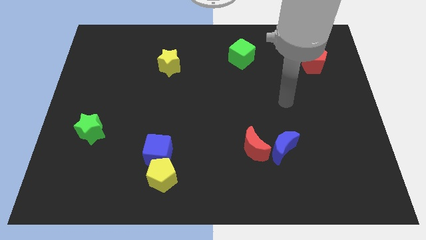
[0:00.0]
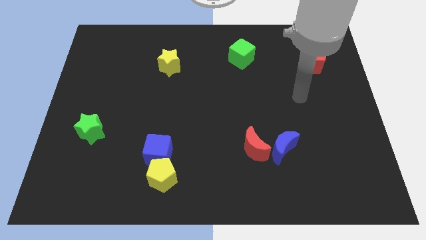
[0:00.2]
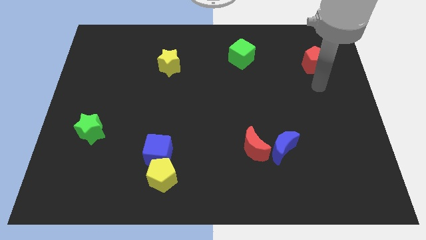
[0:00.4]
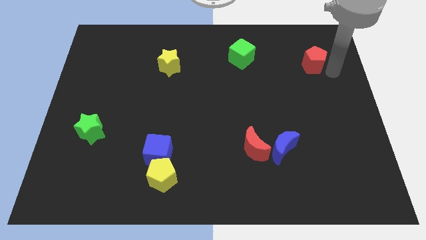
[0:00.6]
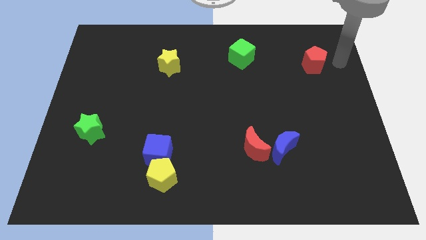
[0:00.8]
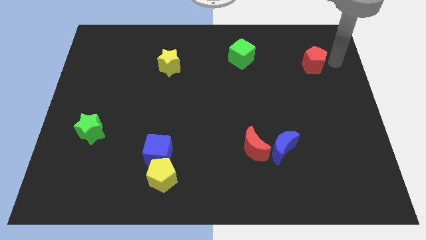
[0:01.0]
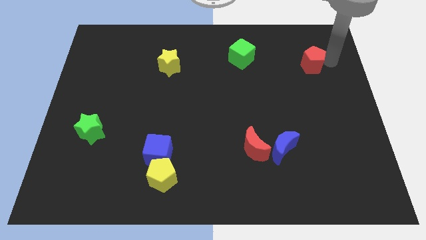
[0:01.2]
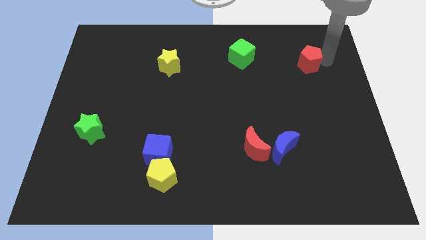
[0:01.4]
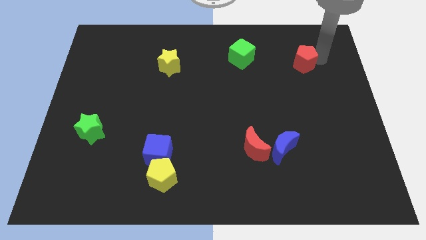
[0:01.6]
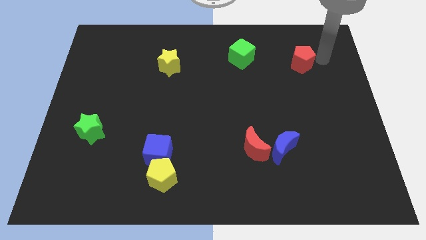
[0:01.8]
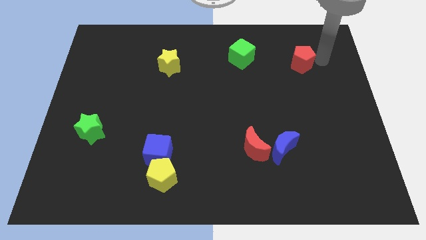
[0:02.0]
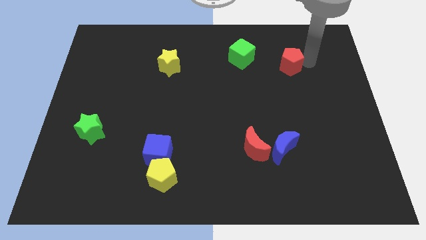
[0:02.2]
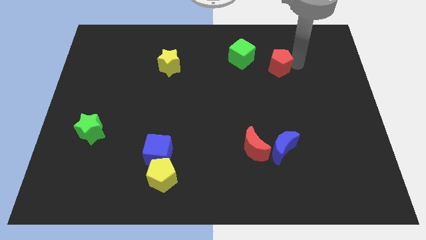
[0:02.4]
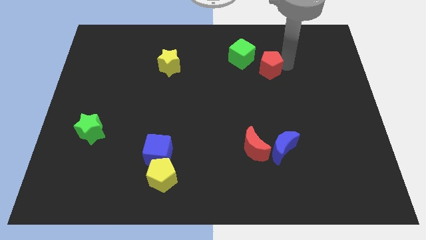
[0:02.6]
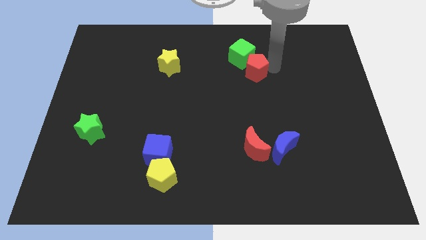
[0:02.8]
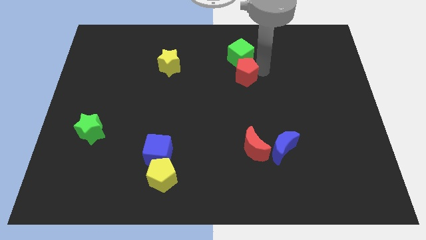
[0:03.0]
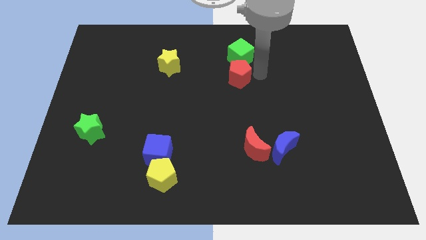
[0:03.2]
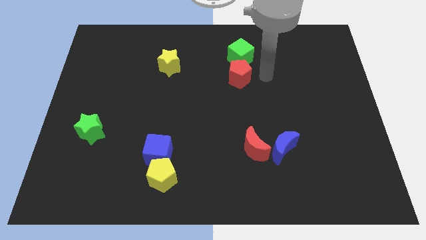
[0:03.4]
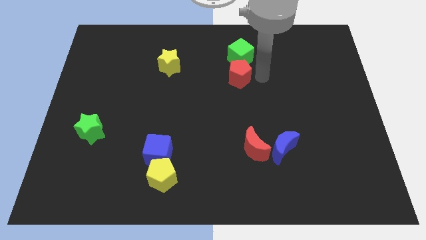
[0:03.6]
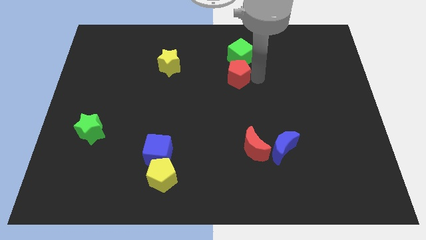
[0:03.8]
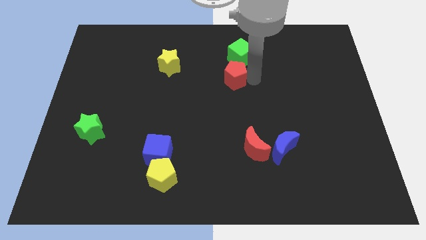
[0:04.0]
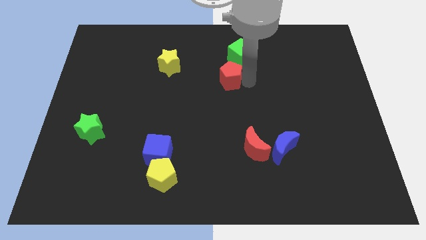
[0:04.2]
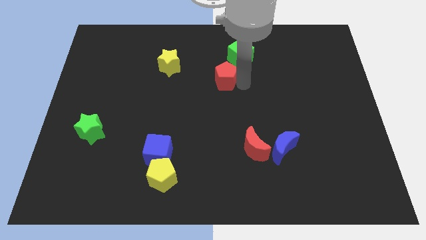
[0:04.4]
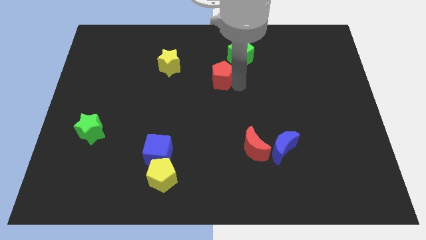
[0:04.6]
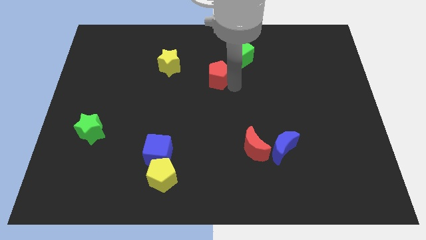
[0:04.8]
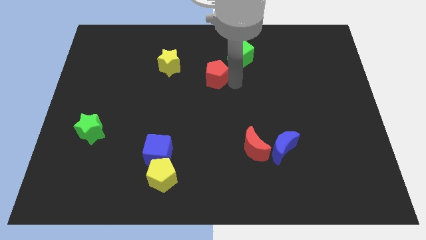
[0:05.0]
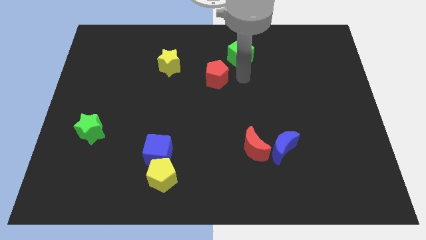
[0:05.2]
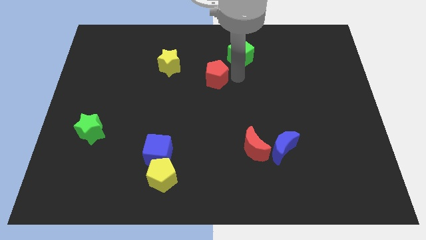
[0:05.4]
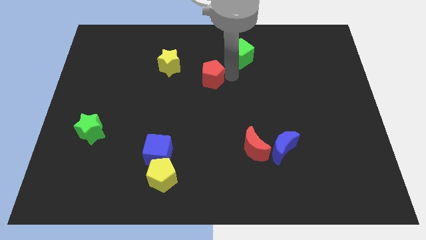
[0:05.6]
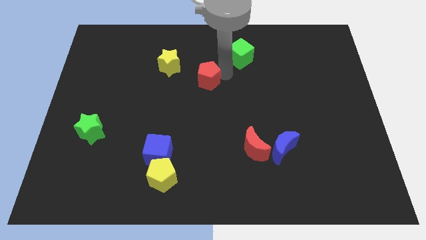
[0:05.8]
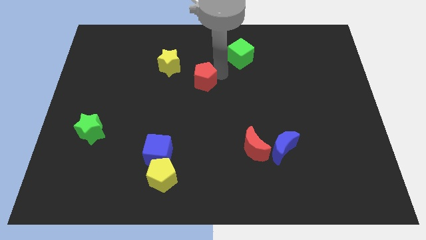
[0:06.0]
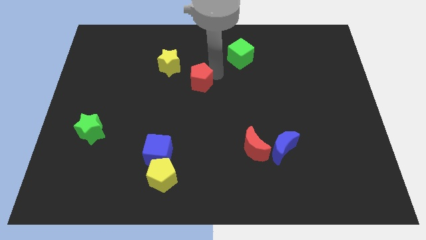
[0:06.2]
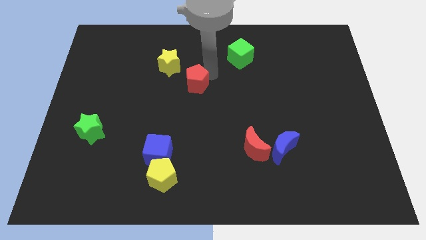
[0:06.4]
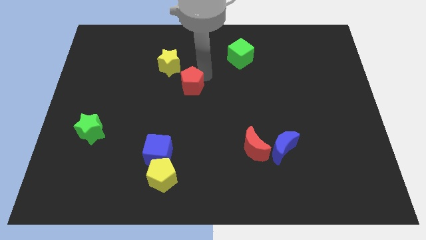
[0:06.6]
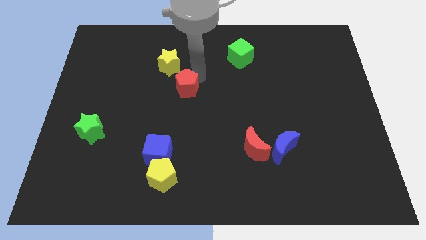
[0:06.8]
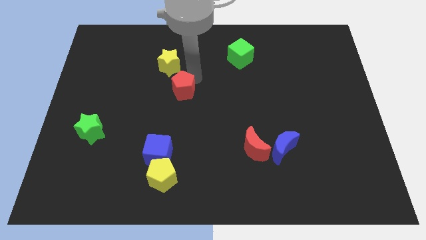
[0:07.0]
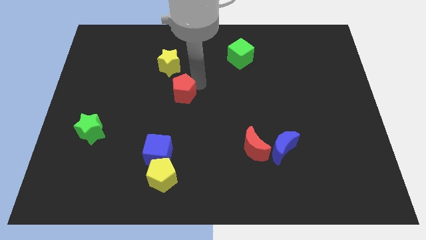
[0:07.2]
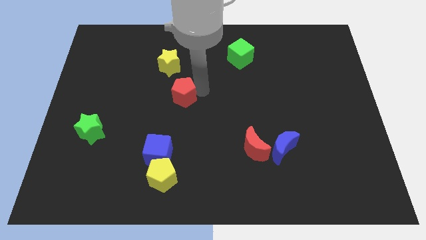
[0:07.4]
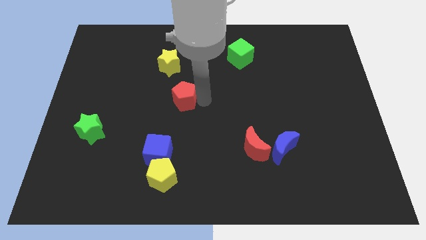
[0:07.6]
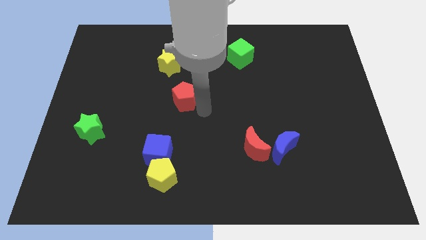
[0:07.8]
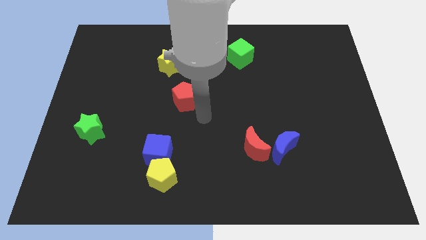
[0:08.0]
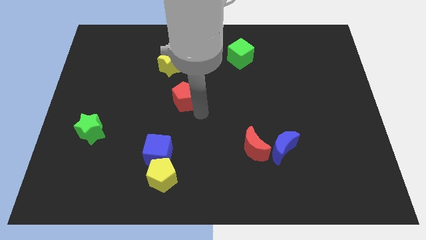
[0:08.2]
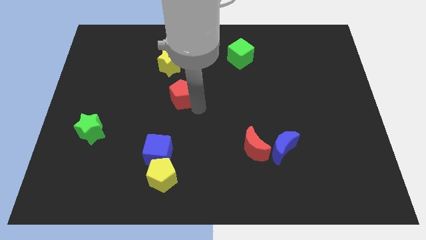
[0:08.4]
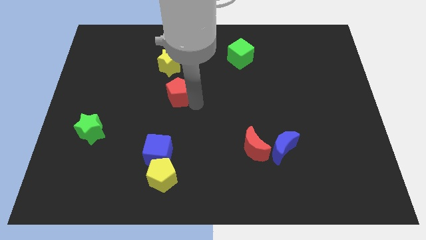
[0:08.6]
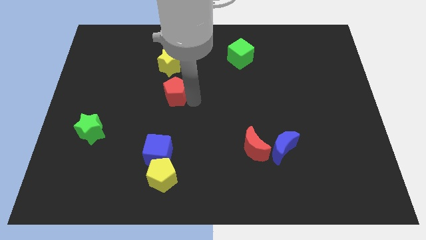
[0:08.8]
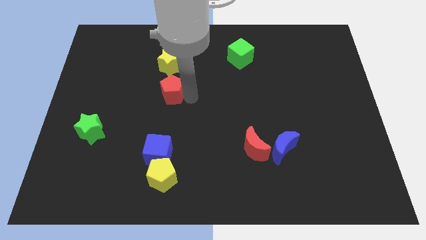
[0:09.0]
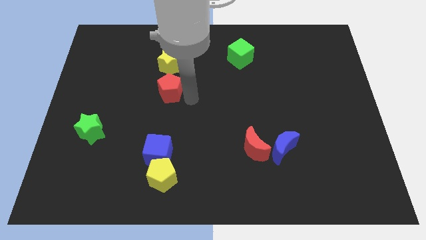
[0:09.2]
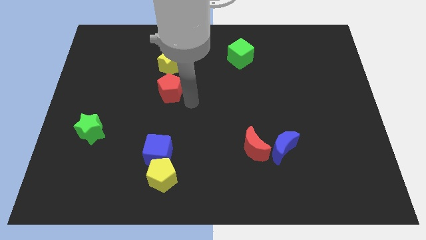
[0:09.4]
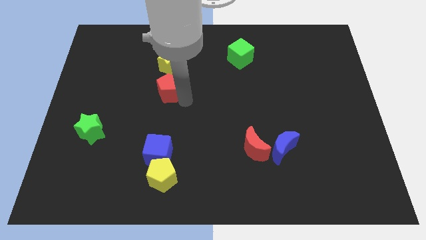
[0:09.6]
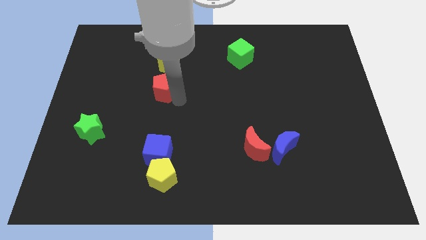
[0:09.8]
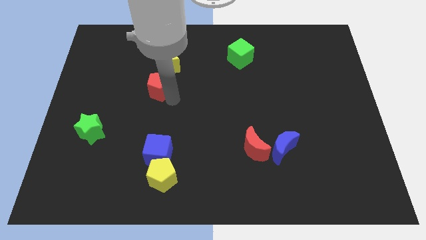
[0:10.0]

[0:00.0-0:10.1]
push the red pentagon to the bottom left side of the yellow star

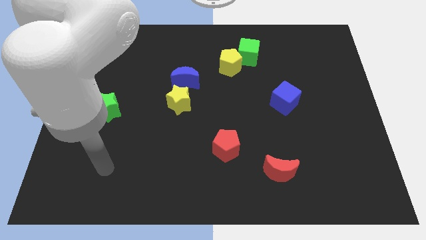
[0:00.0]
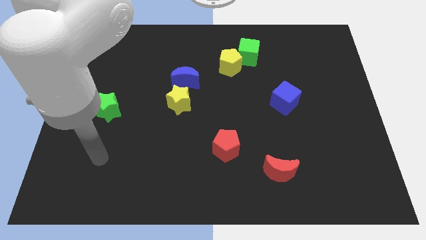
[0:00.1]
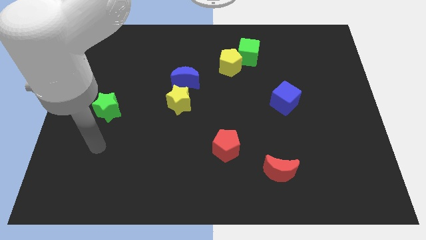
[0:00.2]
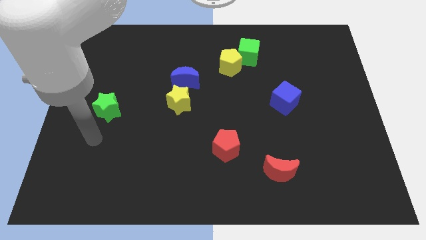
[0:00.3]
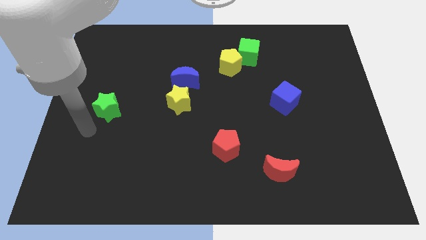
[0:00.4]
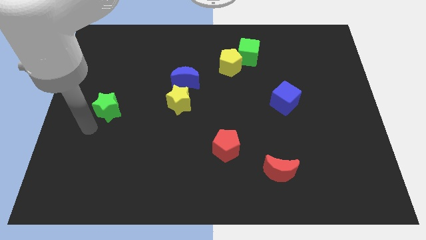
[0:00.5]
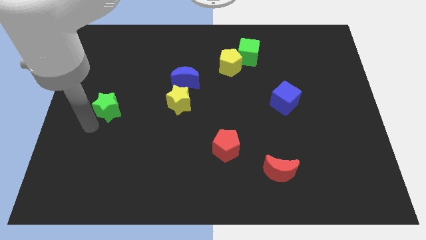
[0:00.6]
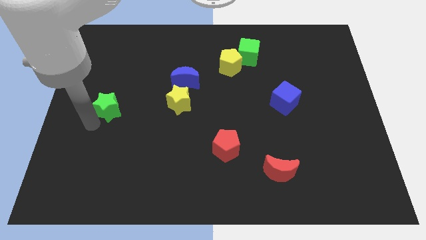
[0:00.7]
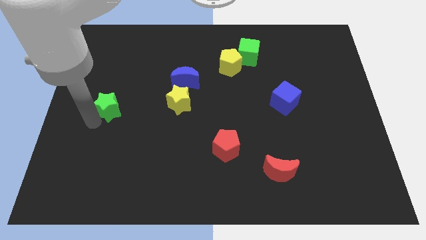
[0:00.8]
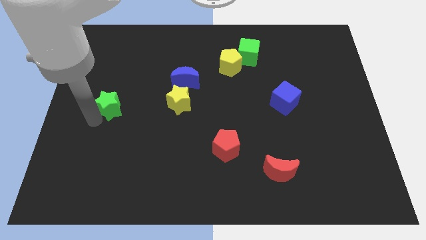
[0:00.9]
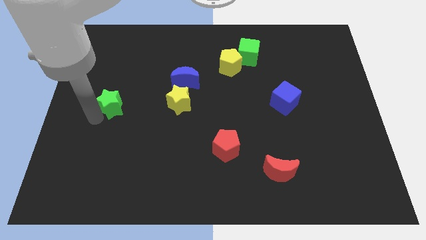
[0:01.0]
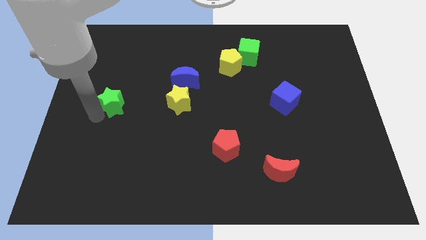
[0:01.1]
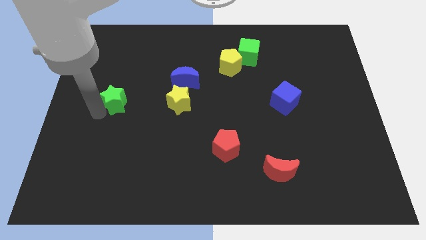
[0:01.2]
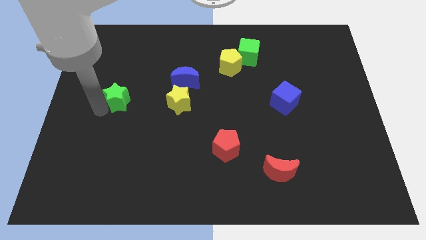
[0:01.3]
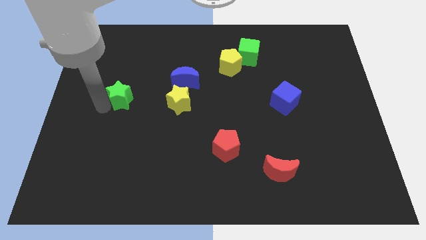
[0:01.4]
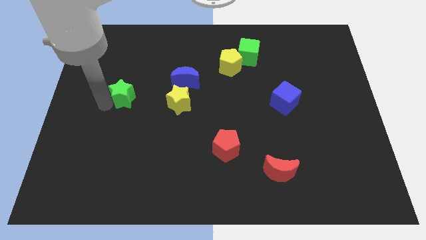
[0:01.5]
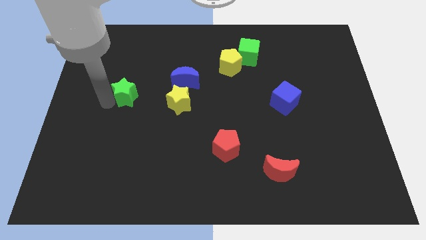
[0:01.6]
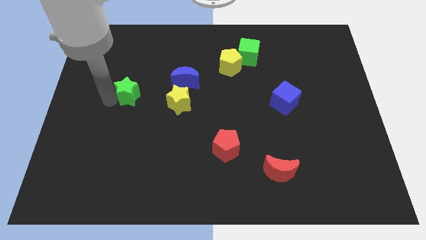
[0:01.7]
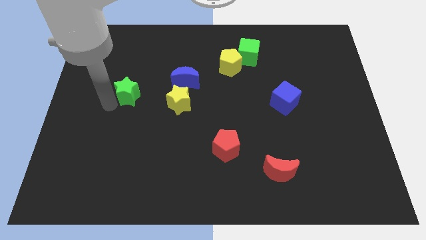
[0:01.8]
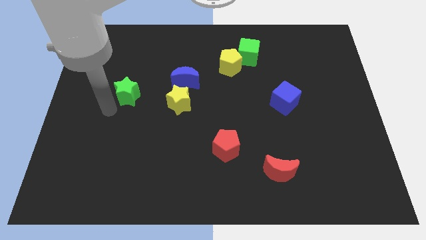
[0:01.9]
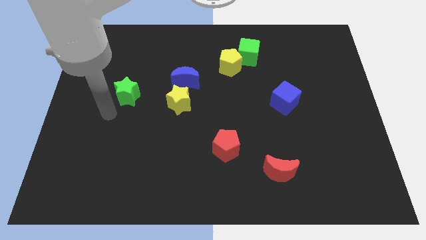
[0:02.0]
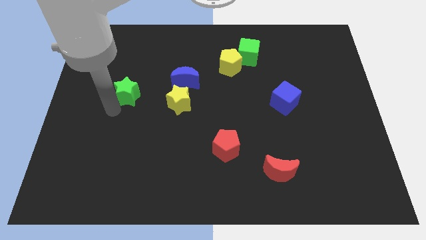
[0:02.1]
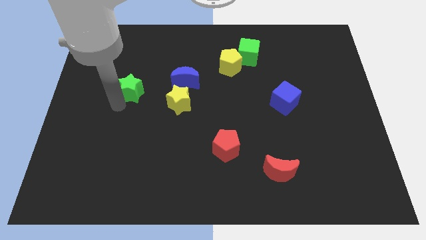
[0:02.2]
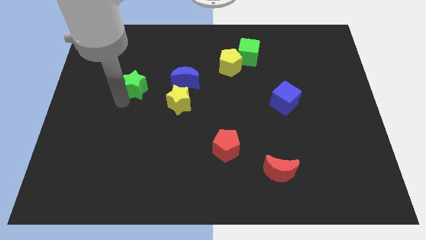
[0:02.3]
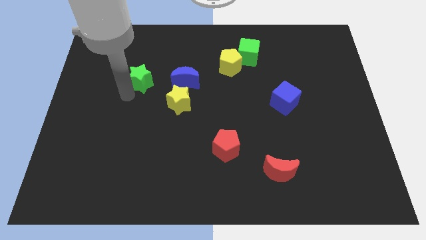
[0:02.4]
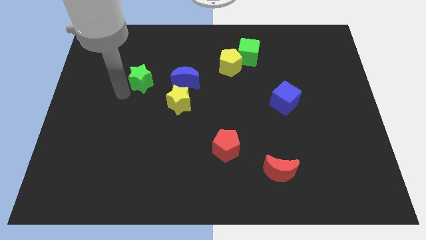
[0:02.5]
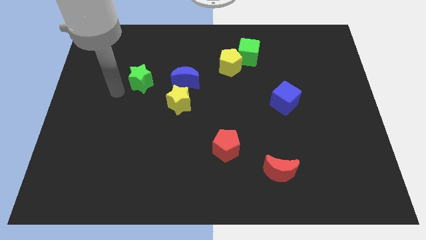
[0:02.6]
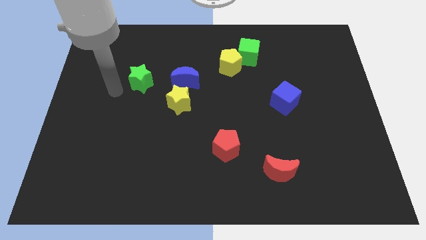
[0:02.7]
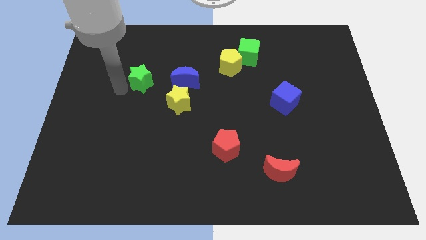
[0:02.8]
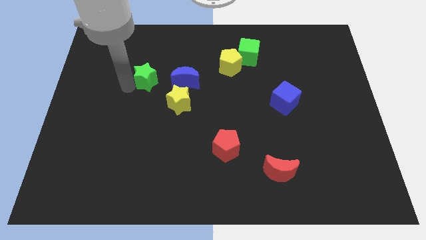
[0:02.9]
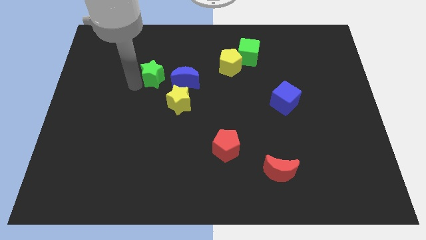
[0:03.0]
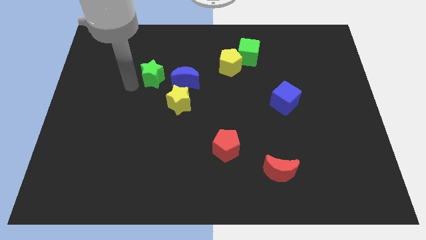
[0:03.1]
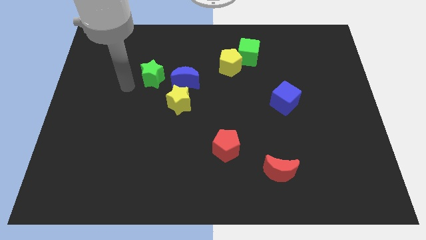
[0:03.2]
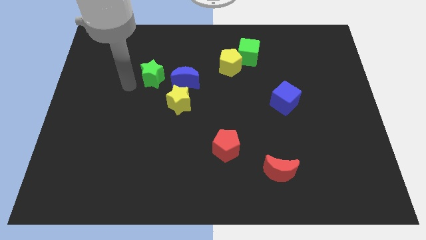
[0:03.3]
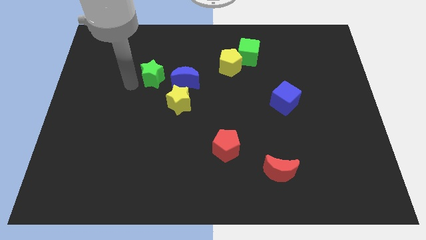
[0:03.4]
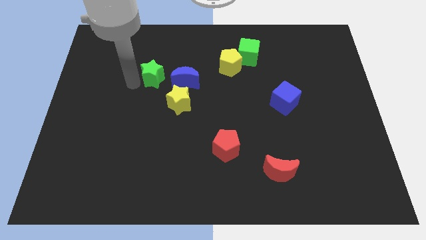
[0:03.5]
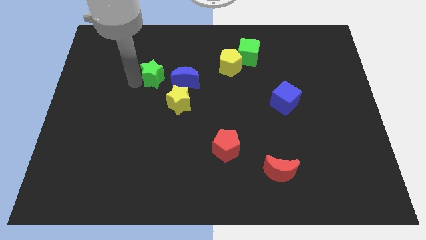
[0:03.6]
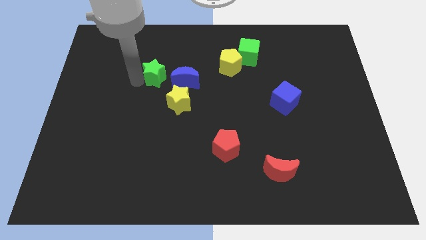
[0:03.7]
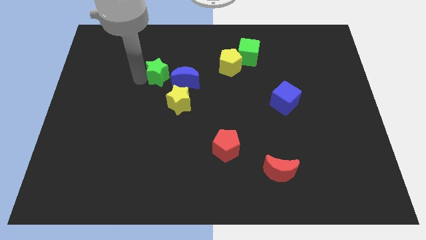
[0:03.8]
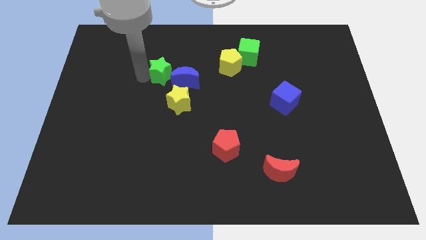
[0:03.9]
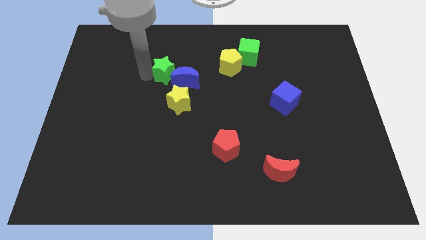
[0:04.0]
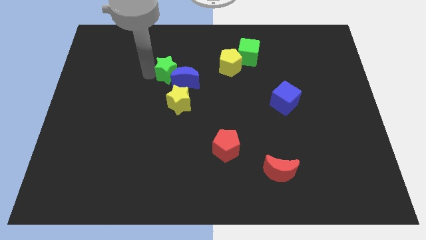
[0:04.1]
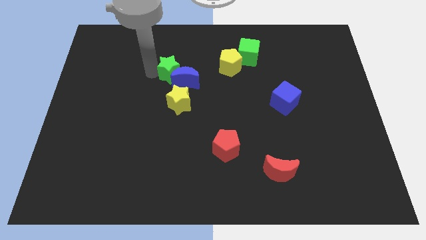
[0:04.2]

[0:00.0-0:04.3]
move the green star left of the yellow pentagon
